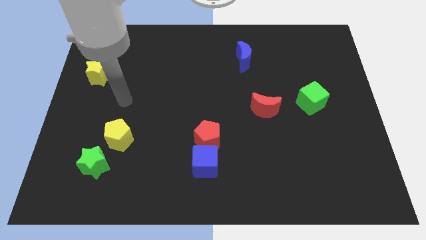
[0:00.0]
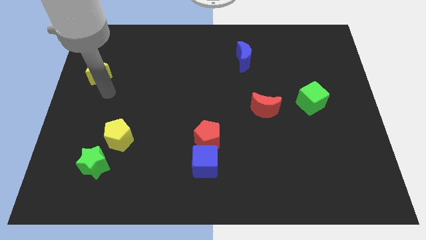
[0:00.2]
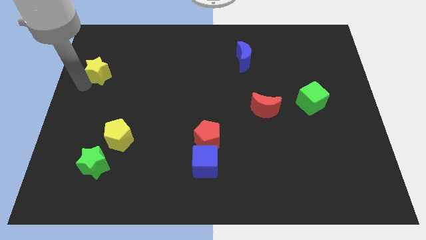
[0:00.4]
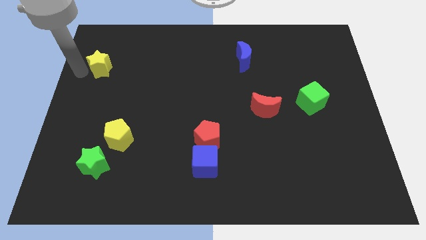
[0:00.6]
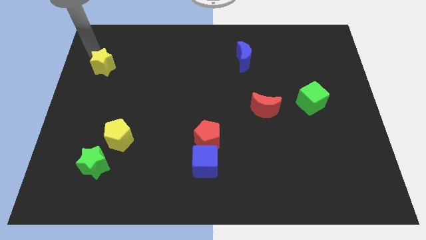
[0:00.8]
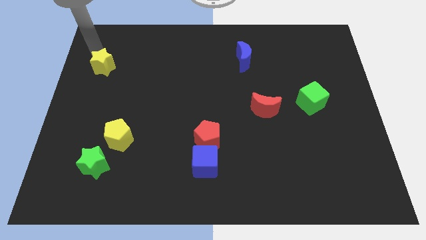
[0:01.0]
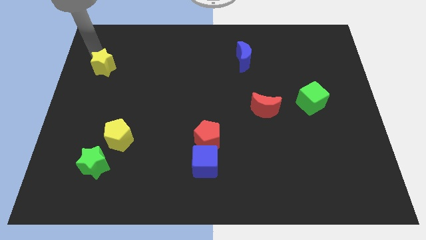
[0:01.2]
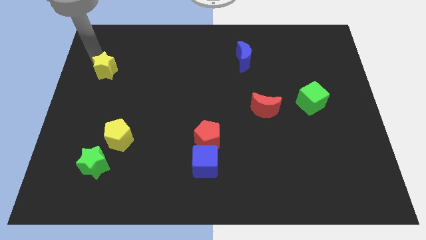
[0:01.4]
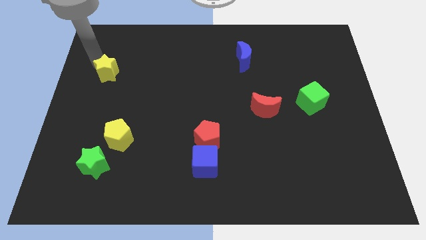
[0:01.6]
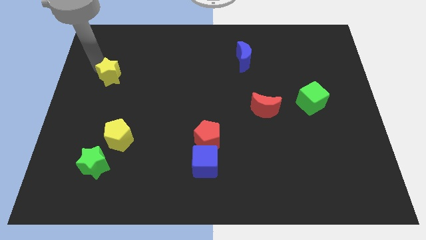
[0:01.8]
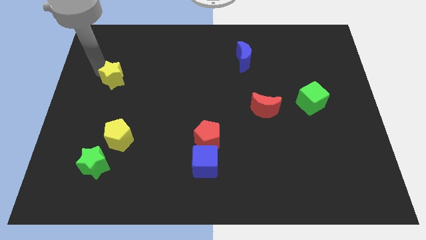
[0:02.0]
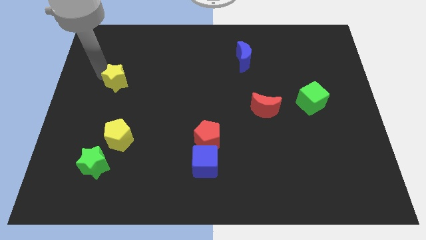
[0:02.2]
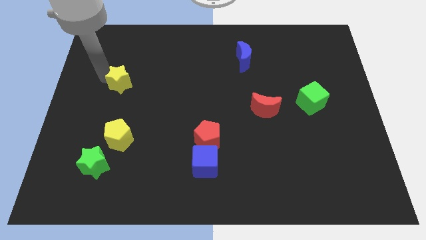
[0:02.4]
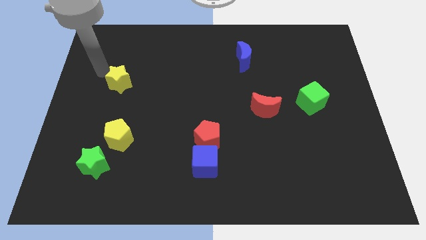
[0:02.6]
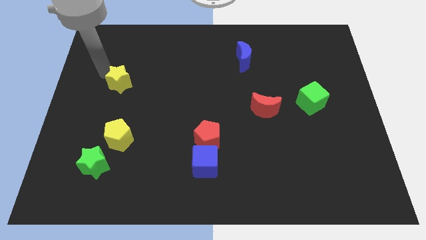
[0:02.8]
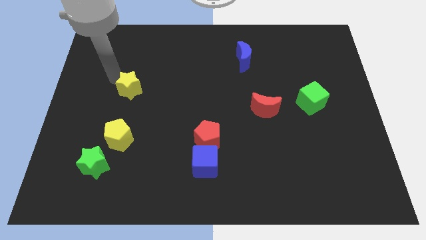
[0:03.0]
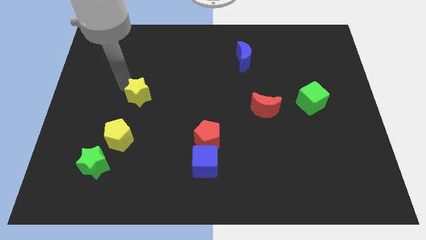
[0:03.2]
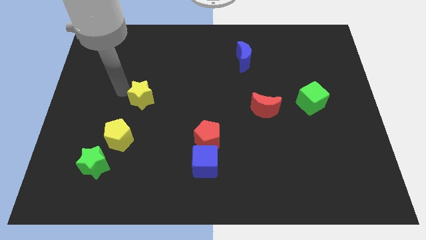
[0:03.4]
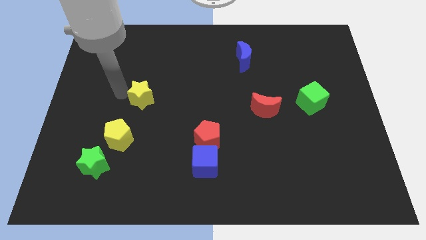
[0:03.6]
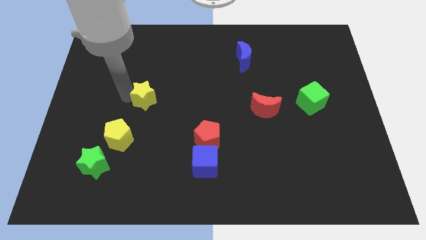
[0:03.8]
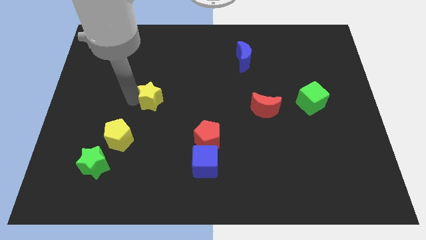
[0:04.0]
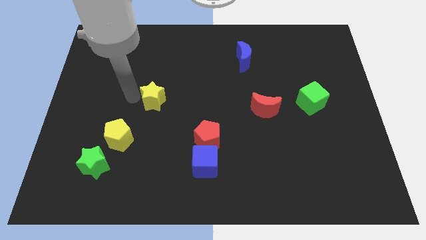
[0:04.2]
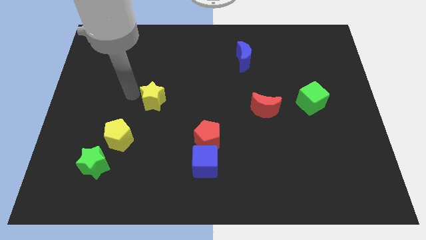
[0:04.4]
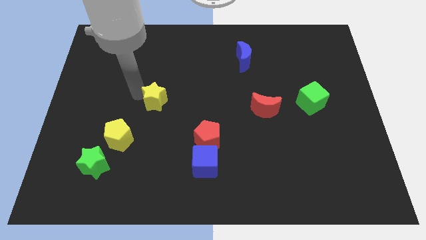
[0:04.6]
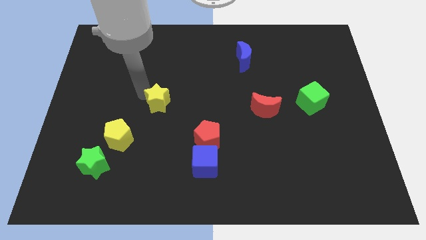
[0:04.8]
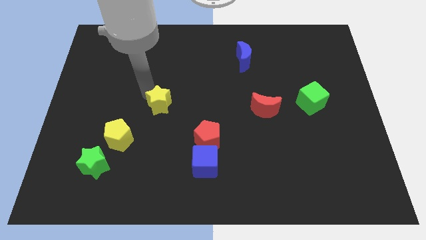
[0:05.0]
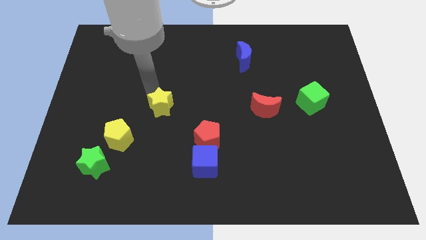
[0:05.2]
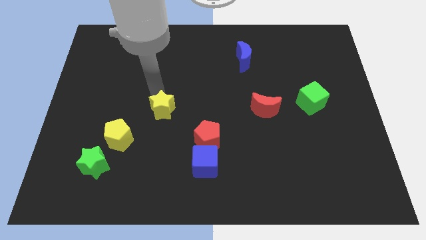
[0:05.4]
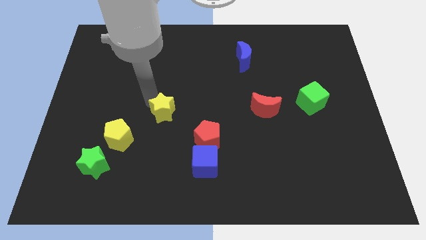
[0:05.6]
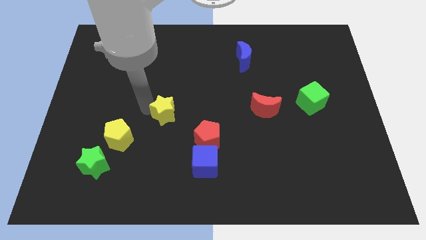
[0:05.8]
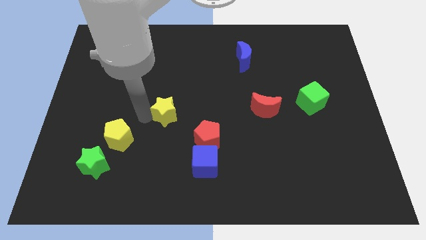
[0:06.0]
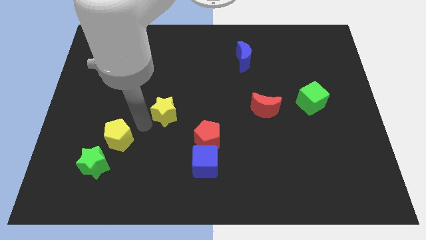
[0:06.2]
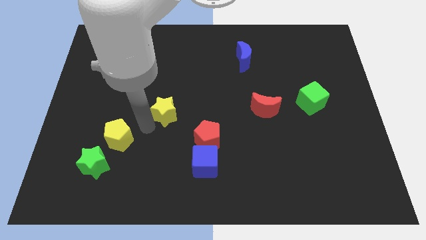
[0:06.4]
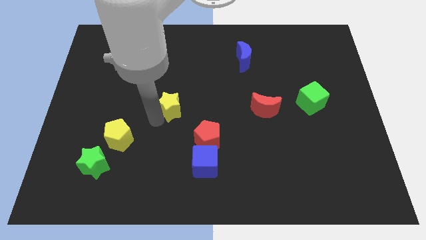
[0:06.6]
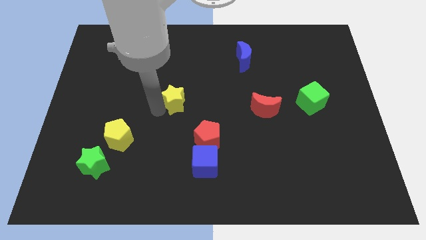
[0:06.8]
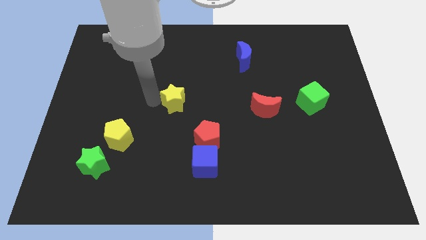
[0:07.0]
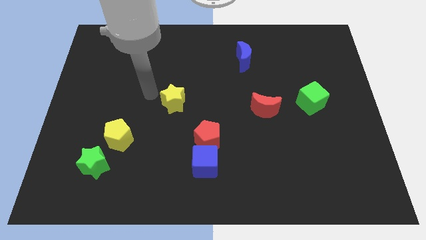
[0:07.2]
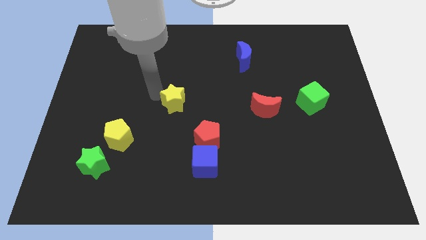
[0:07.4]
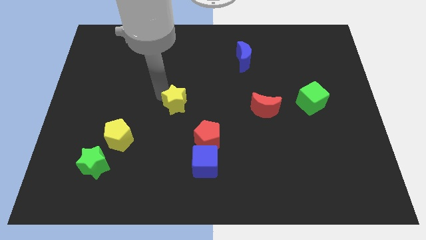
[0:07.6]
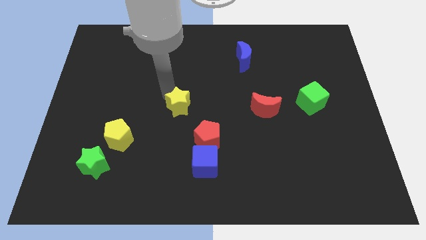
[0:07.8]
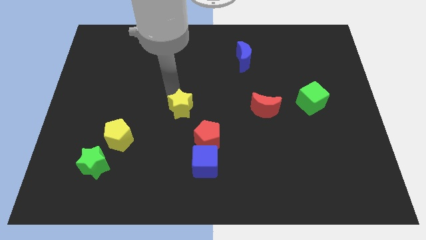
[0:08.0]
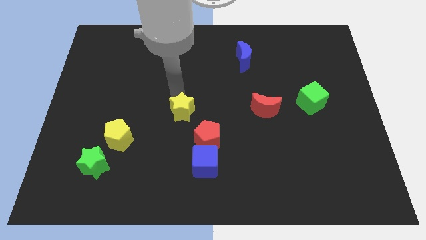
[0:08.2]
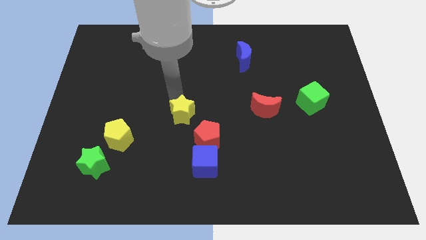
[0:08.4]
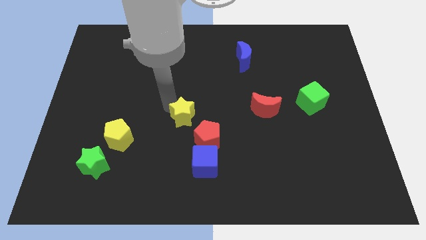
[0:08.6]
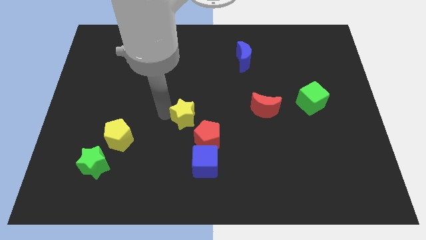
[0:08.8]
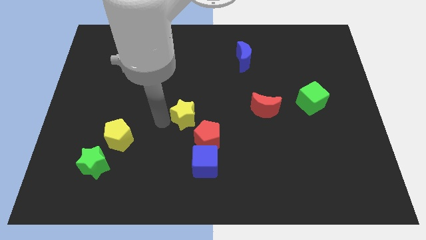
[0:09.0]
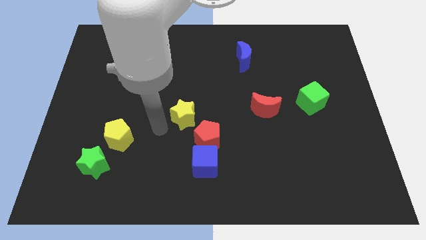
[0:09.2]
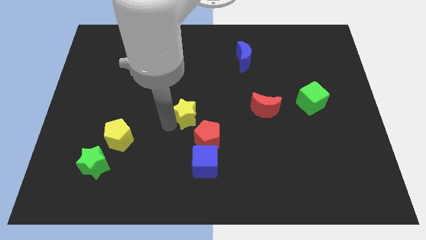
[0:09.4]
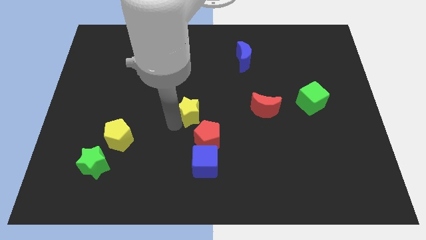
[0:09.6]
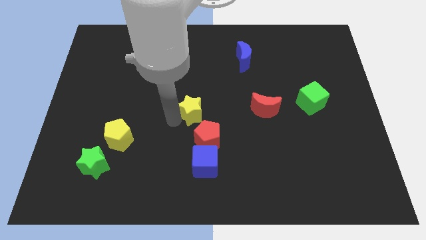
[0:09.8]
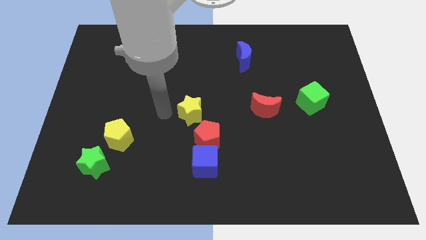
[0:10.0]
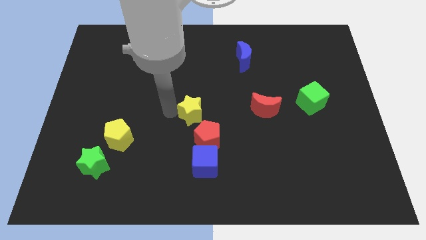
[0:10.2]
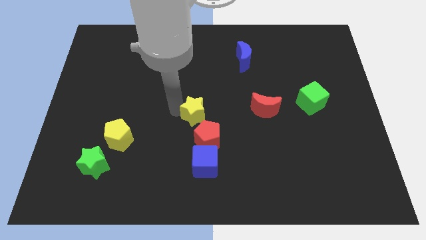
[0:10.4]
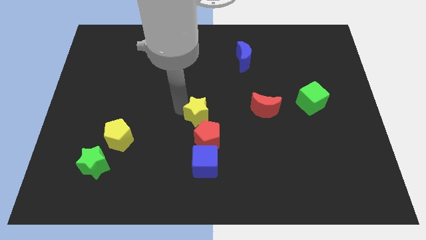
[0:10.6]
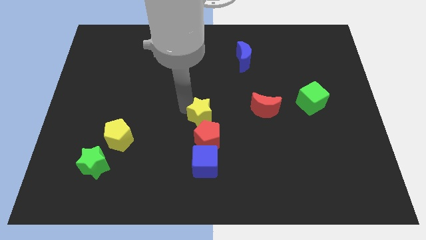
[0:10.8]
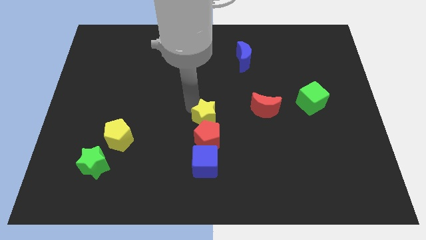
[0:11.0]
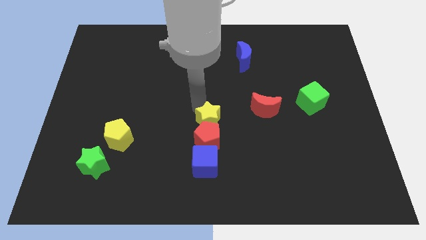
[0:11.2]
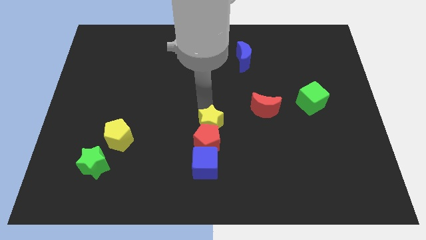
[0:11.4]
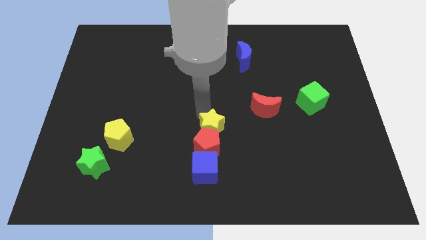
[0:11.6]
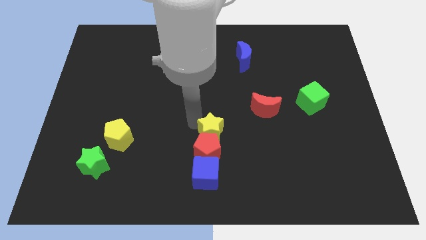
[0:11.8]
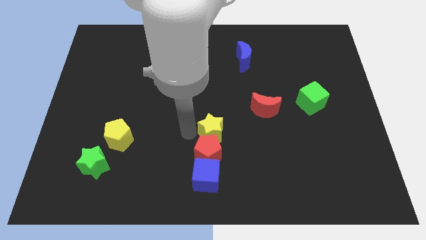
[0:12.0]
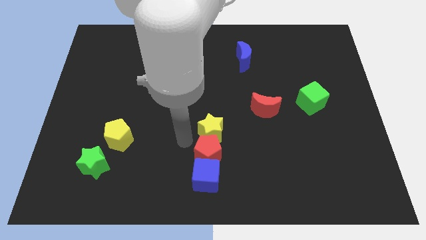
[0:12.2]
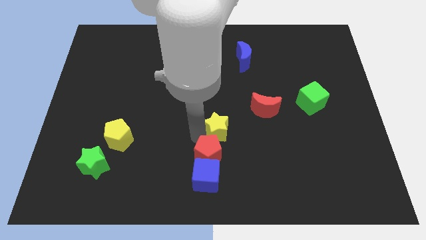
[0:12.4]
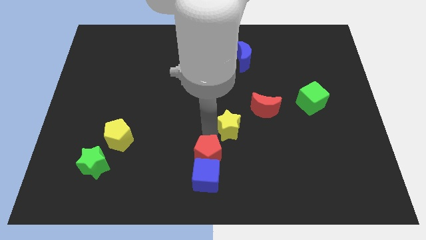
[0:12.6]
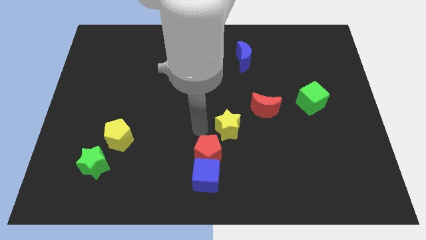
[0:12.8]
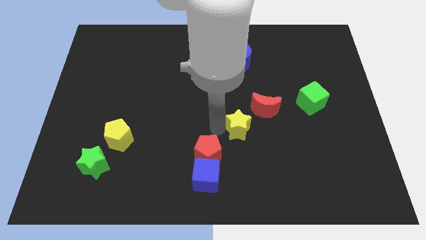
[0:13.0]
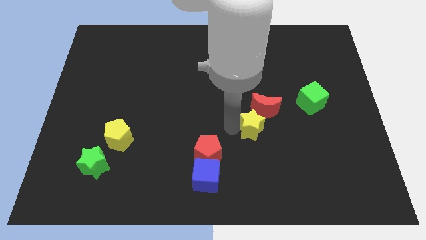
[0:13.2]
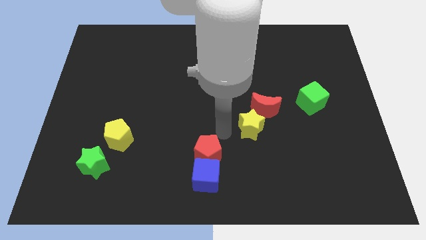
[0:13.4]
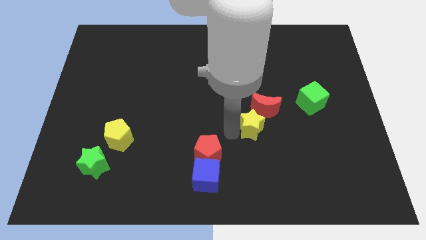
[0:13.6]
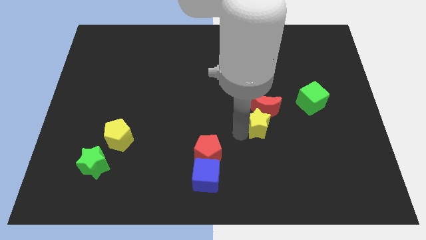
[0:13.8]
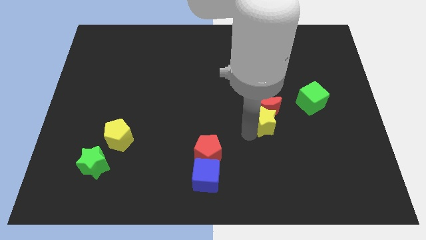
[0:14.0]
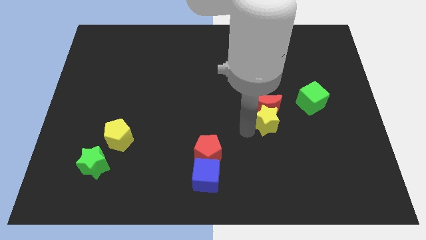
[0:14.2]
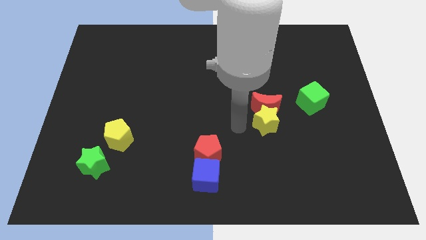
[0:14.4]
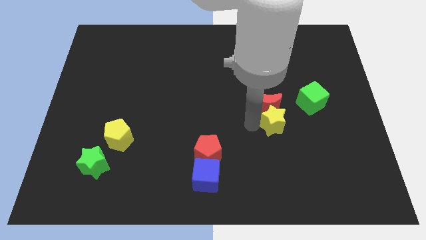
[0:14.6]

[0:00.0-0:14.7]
put the yellow star diagonally down and to the left of the green cube
